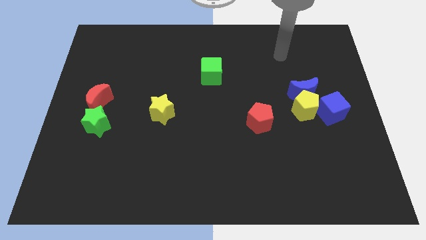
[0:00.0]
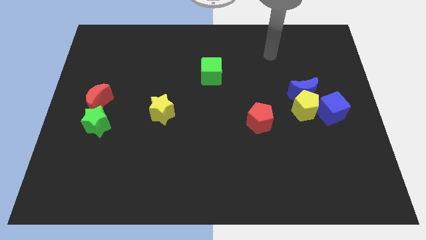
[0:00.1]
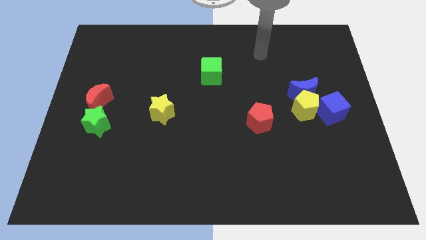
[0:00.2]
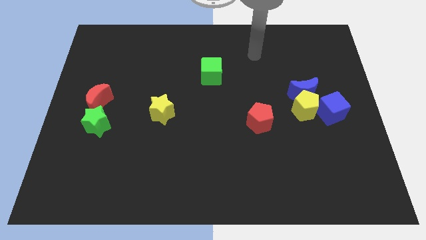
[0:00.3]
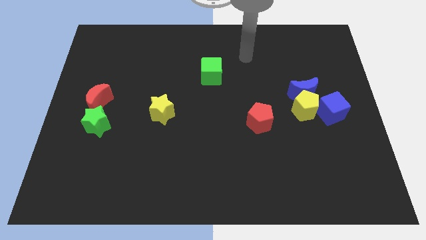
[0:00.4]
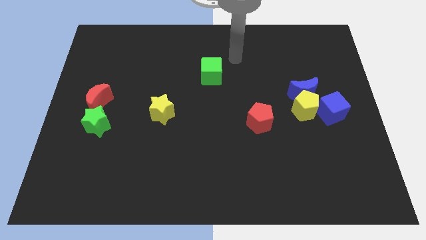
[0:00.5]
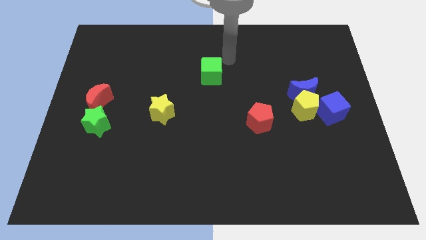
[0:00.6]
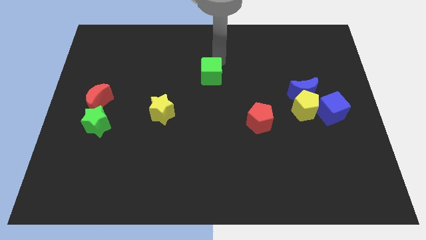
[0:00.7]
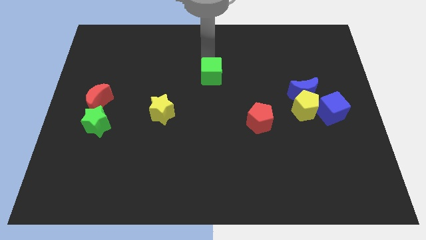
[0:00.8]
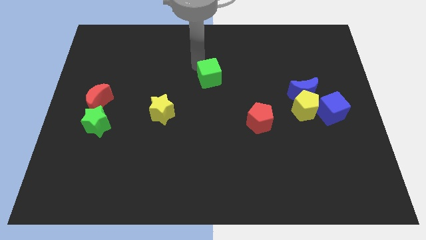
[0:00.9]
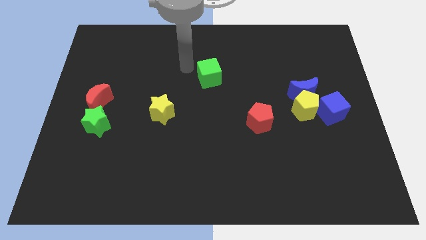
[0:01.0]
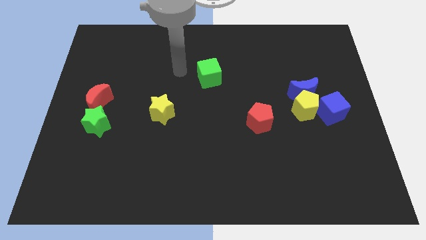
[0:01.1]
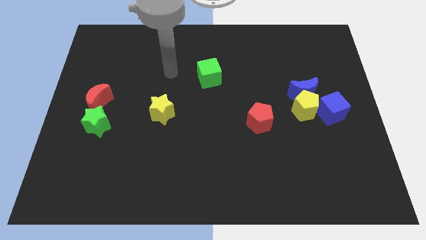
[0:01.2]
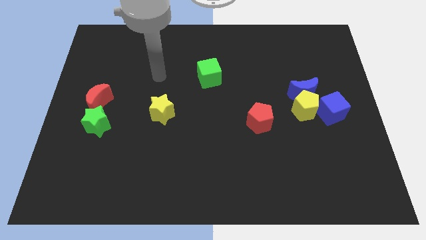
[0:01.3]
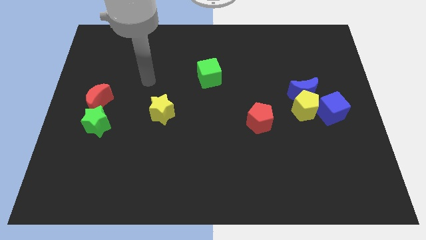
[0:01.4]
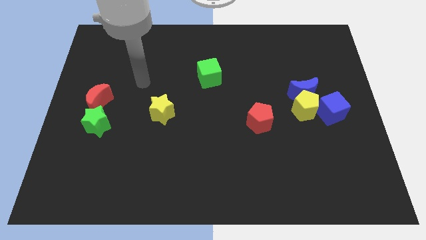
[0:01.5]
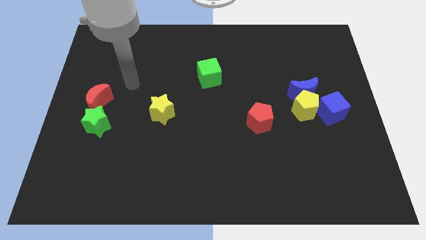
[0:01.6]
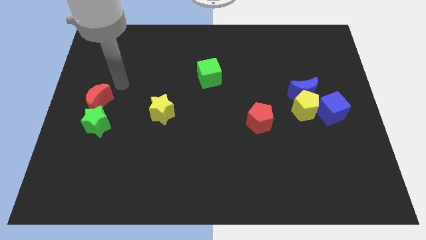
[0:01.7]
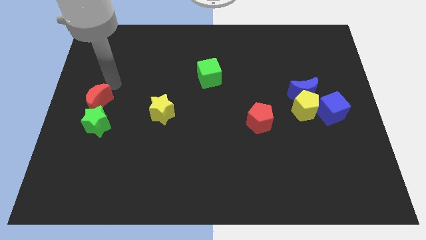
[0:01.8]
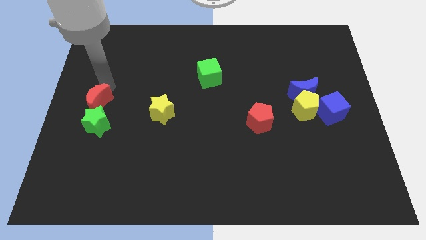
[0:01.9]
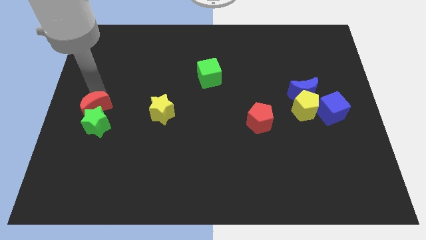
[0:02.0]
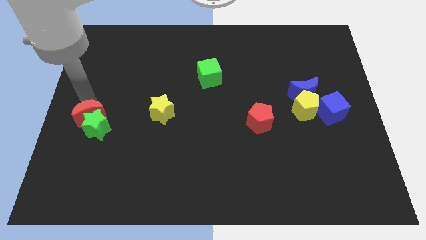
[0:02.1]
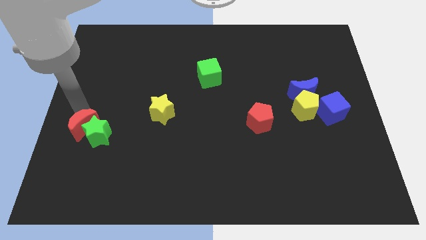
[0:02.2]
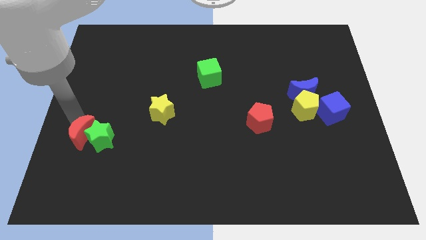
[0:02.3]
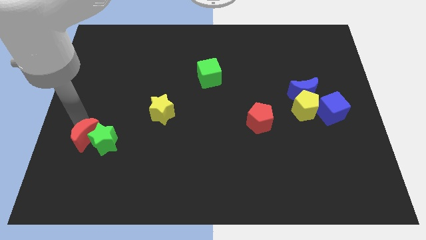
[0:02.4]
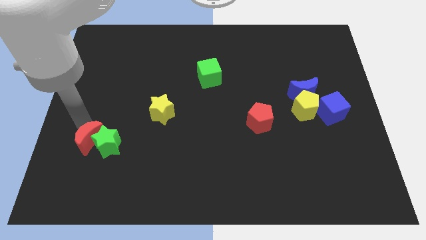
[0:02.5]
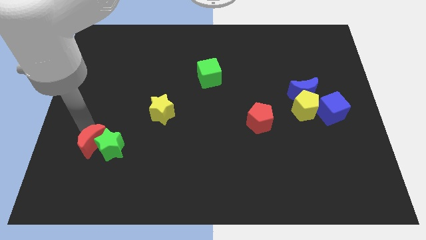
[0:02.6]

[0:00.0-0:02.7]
move the green star a little bit diagonally down and right

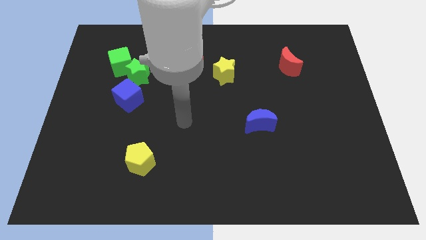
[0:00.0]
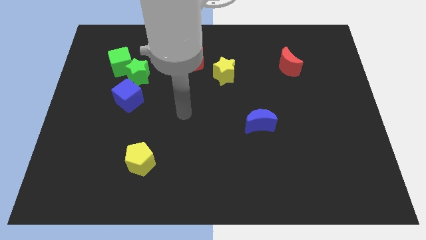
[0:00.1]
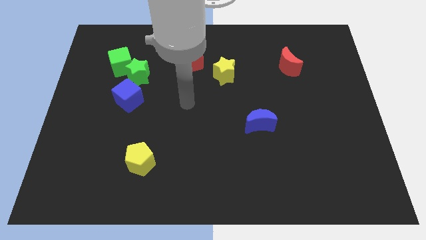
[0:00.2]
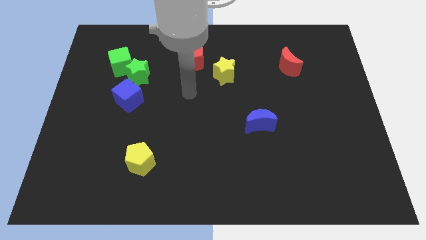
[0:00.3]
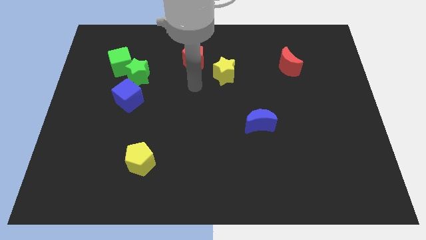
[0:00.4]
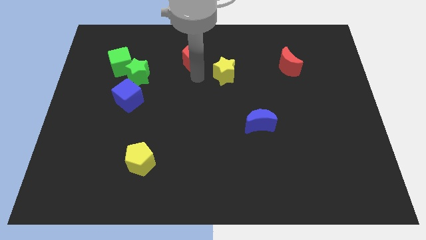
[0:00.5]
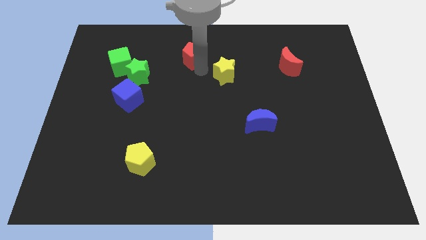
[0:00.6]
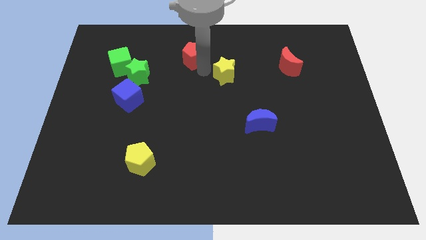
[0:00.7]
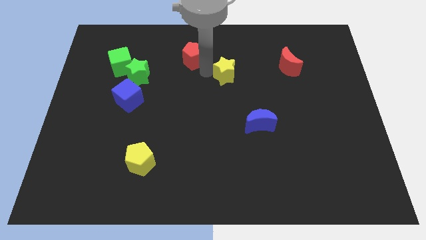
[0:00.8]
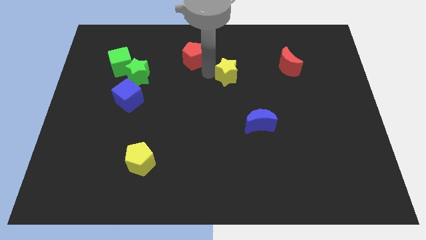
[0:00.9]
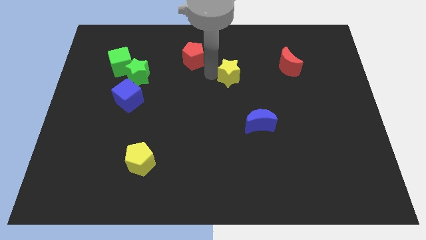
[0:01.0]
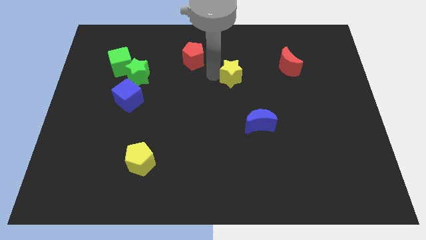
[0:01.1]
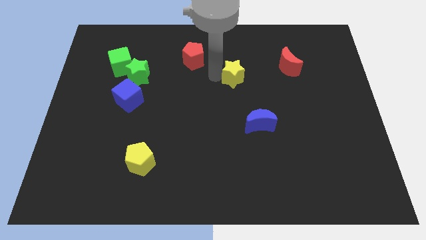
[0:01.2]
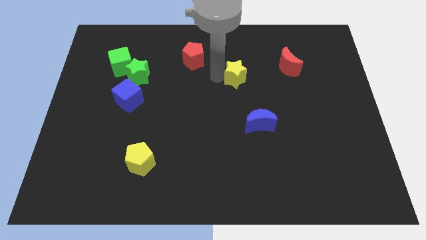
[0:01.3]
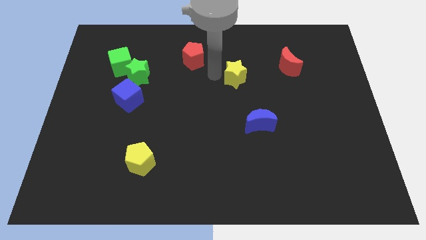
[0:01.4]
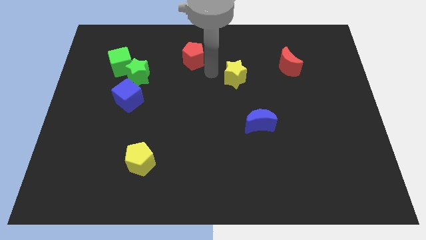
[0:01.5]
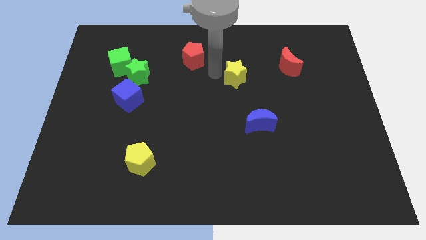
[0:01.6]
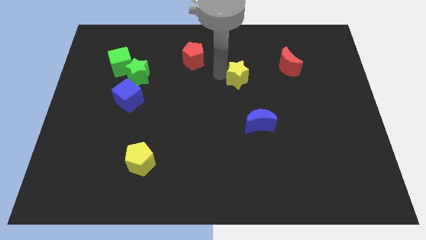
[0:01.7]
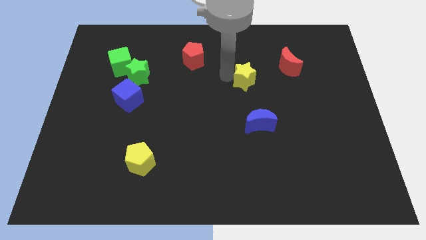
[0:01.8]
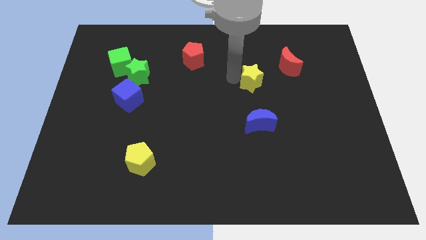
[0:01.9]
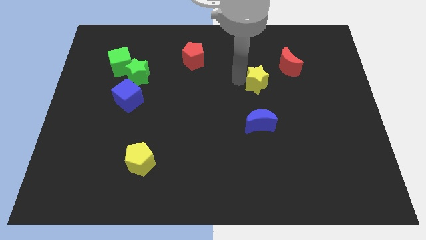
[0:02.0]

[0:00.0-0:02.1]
push the yellow star somewhat to the right

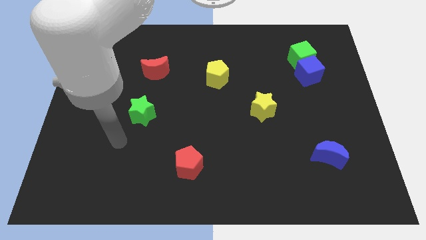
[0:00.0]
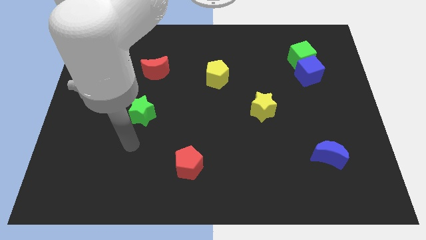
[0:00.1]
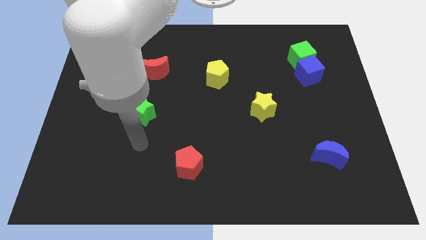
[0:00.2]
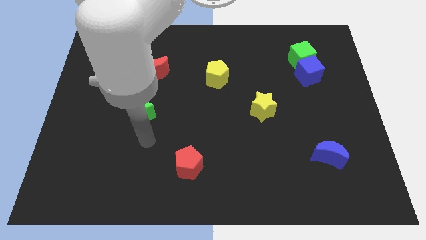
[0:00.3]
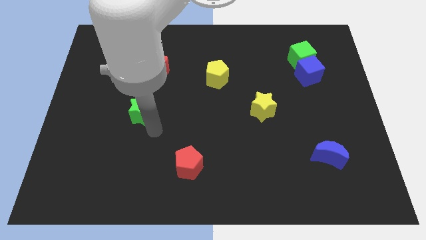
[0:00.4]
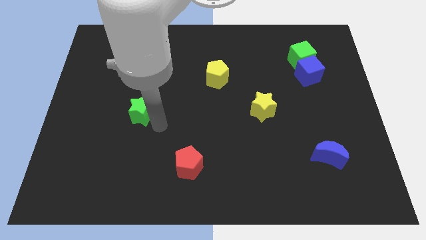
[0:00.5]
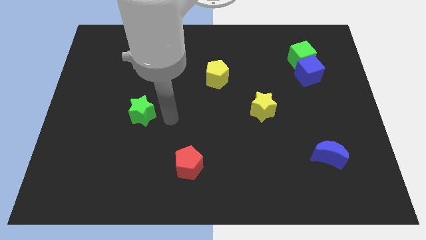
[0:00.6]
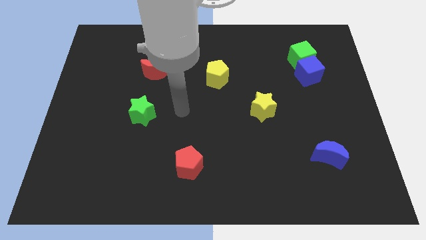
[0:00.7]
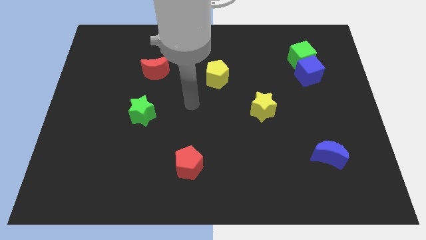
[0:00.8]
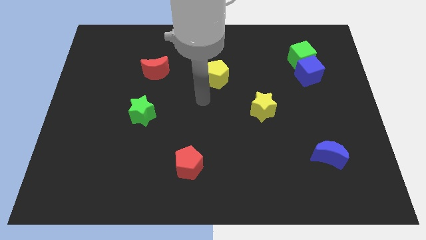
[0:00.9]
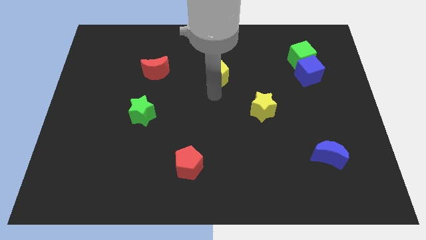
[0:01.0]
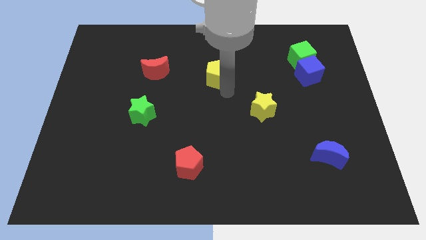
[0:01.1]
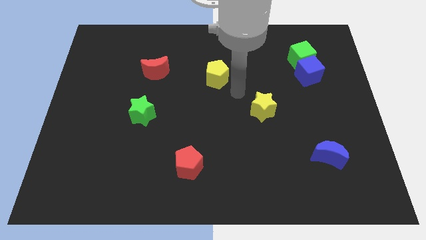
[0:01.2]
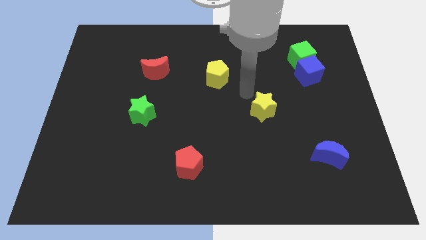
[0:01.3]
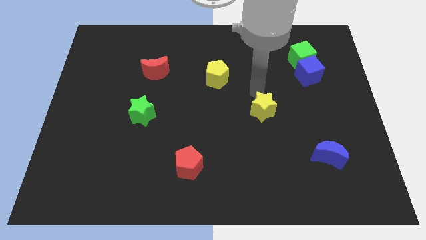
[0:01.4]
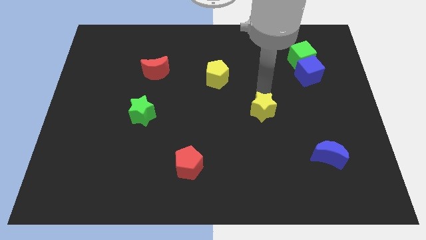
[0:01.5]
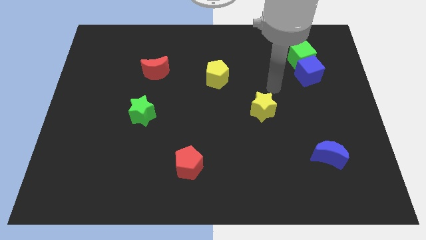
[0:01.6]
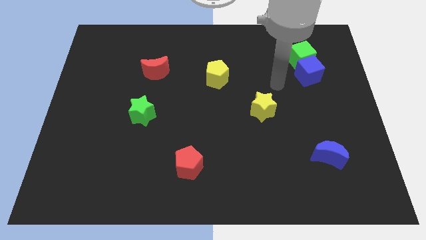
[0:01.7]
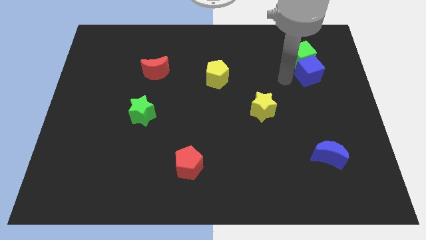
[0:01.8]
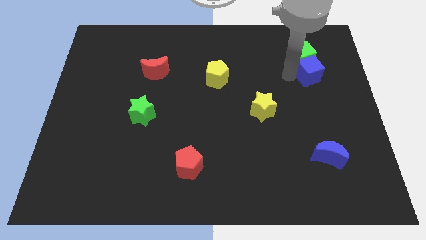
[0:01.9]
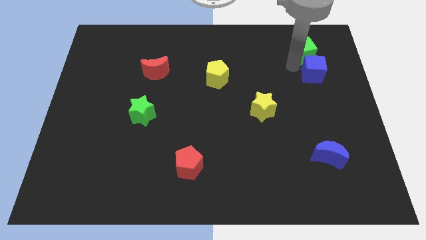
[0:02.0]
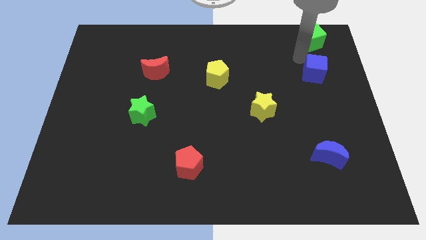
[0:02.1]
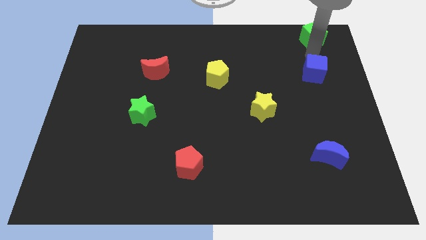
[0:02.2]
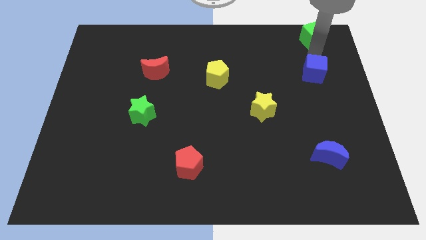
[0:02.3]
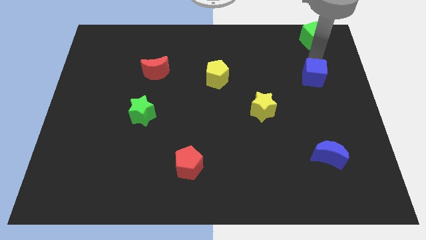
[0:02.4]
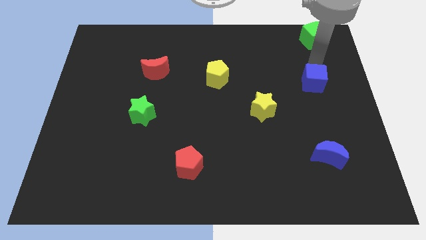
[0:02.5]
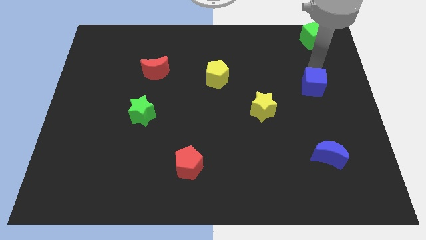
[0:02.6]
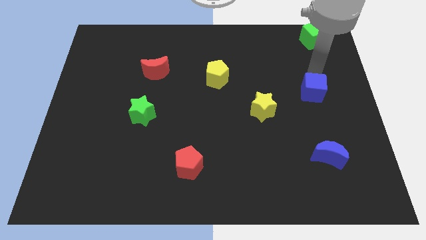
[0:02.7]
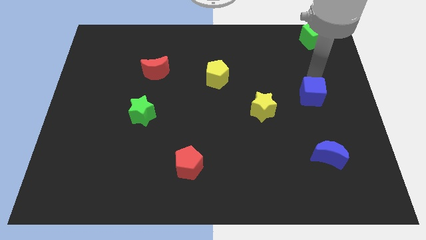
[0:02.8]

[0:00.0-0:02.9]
push the blue cube a little bit down

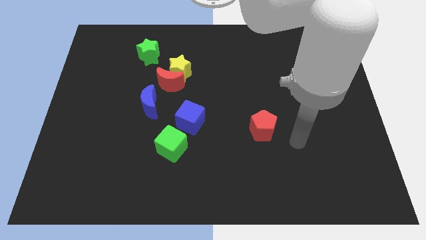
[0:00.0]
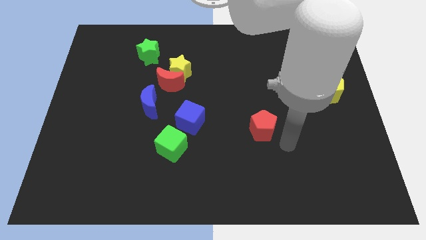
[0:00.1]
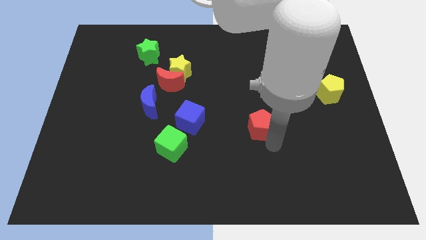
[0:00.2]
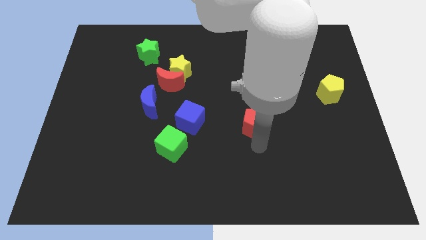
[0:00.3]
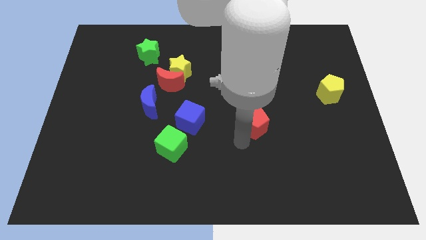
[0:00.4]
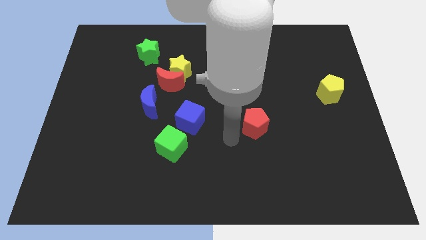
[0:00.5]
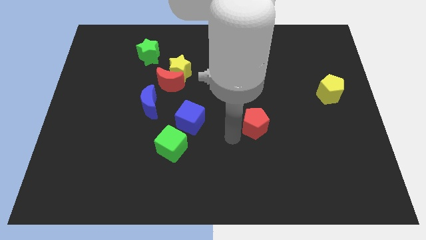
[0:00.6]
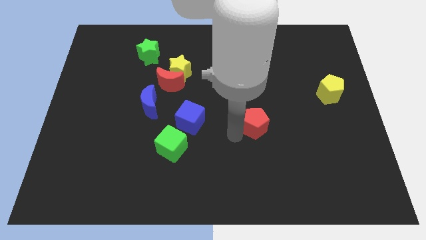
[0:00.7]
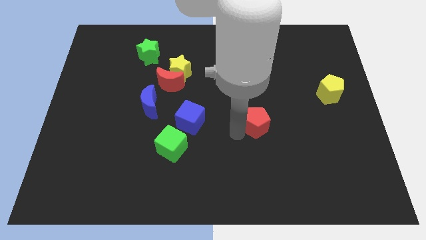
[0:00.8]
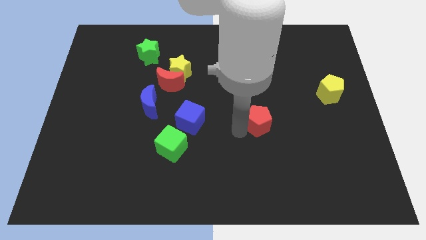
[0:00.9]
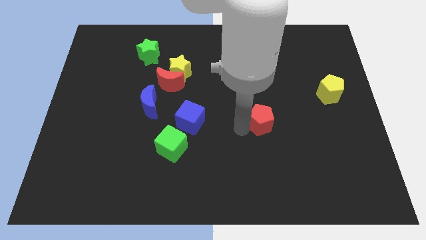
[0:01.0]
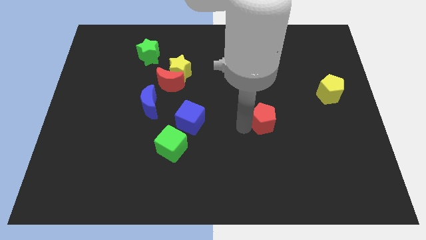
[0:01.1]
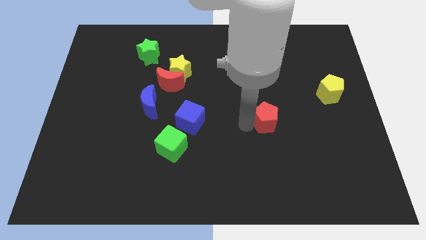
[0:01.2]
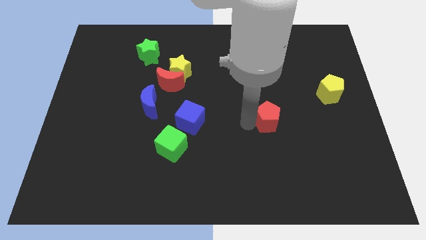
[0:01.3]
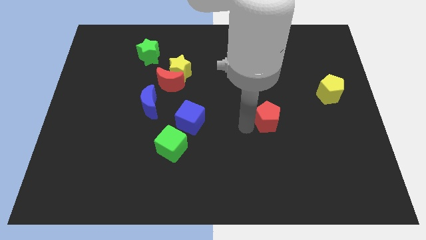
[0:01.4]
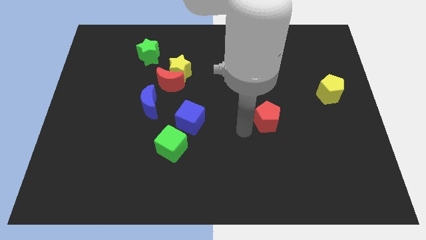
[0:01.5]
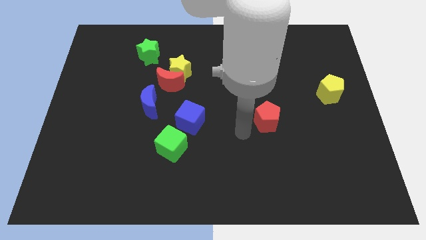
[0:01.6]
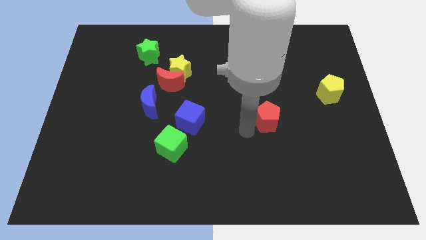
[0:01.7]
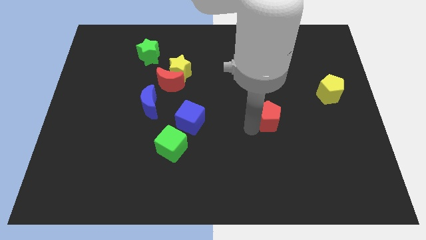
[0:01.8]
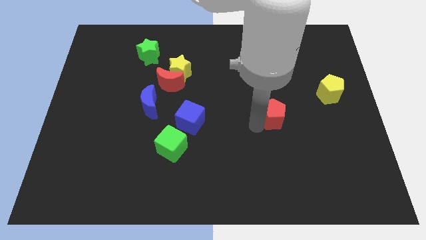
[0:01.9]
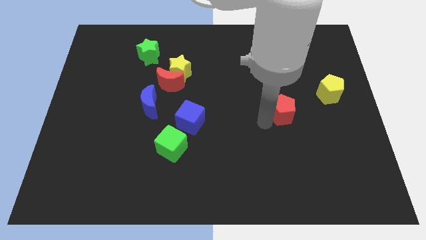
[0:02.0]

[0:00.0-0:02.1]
slightly move the red pentagon upwards and to the right
